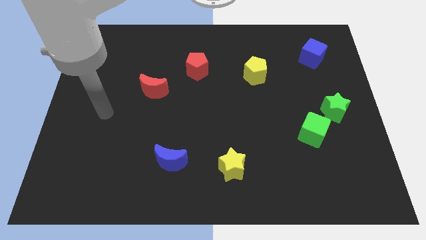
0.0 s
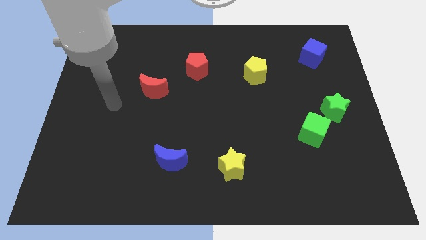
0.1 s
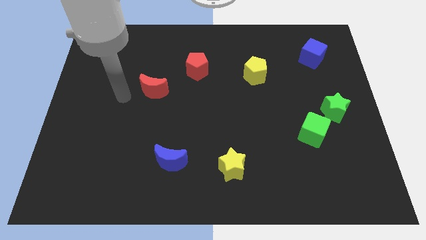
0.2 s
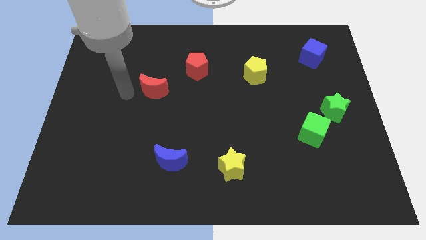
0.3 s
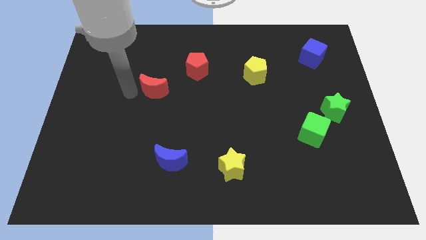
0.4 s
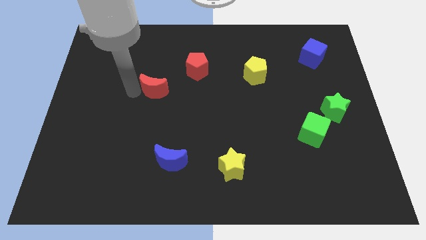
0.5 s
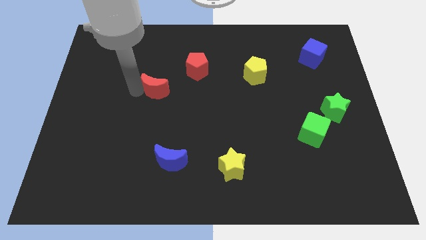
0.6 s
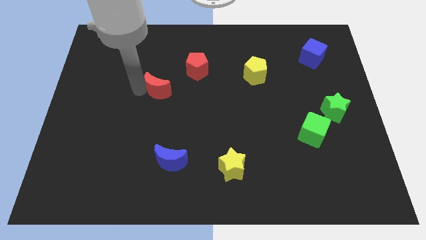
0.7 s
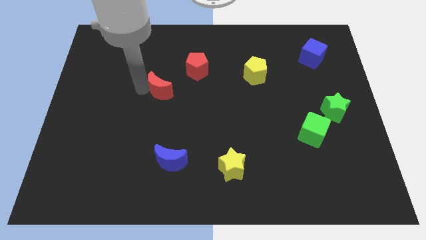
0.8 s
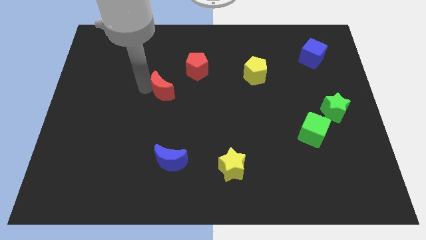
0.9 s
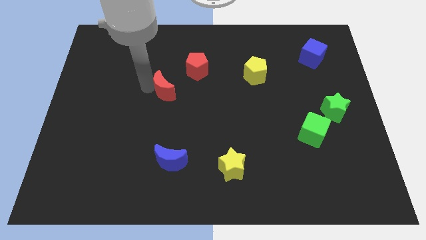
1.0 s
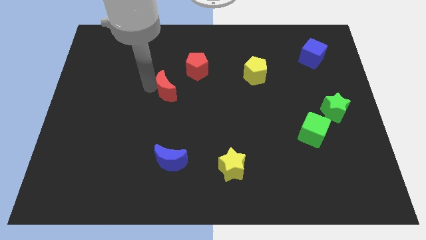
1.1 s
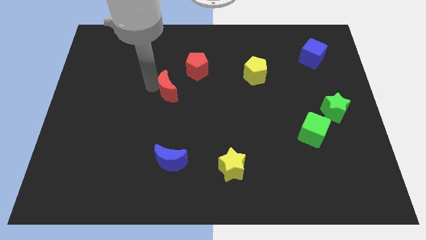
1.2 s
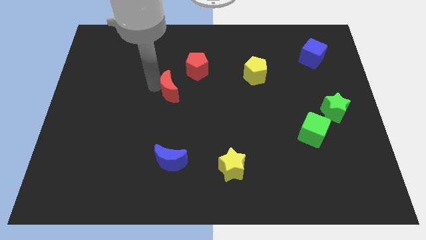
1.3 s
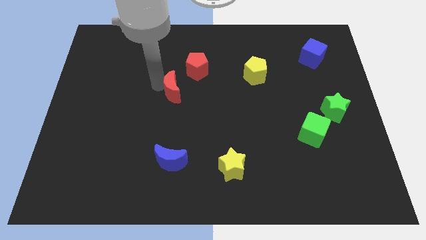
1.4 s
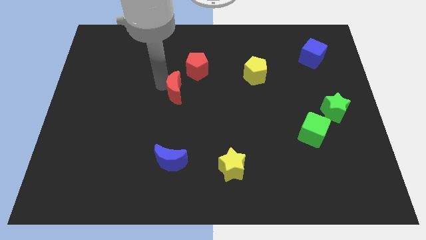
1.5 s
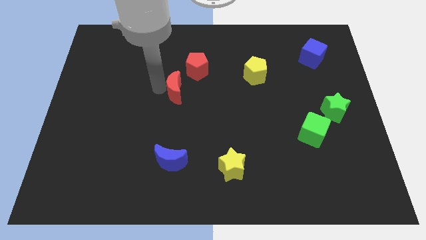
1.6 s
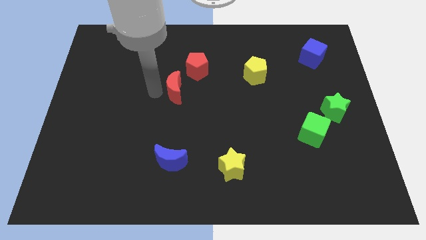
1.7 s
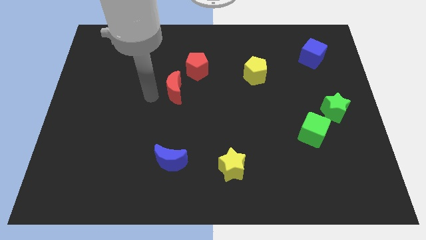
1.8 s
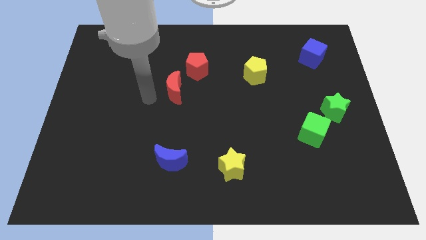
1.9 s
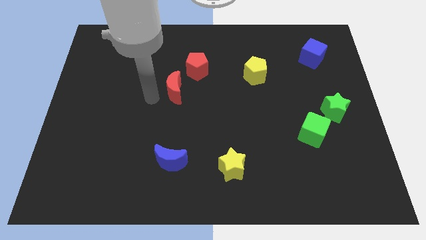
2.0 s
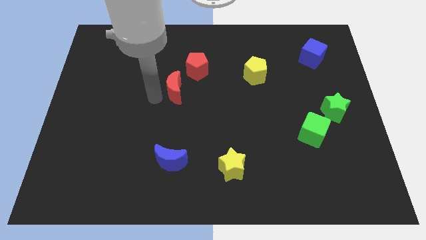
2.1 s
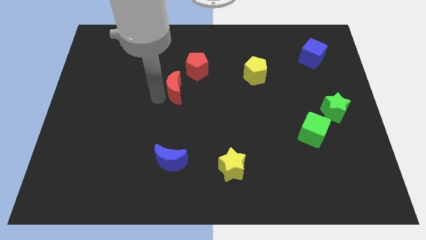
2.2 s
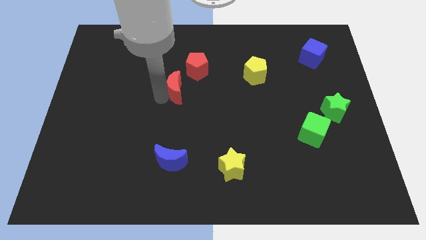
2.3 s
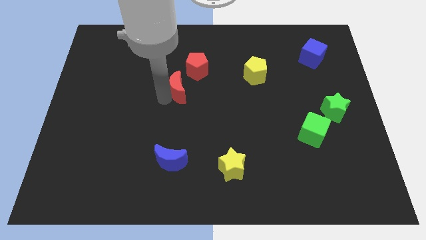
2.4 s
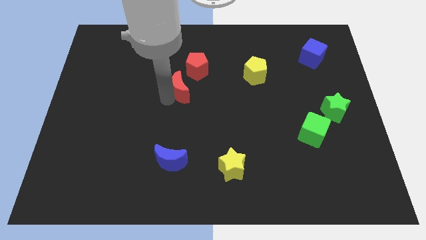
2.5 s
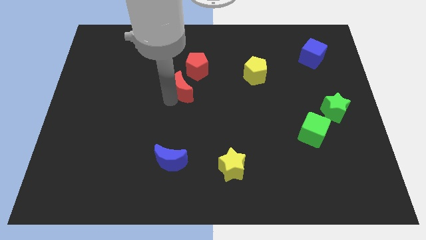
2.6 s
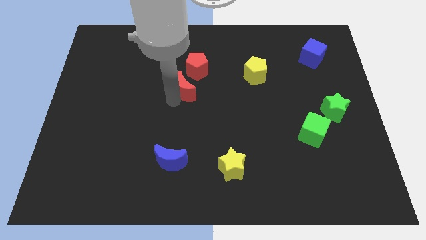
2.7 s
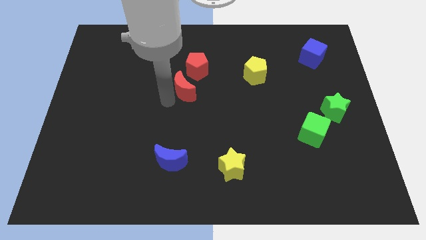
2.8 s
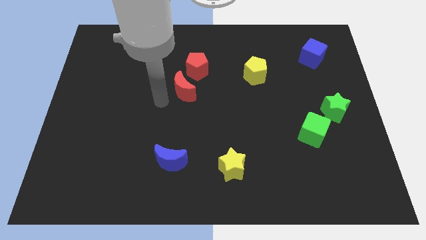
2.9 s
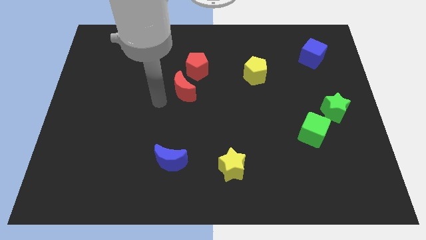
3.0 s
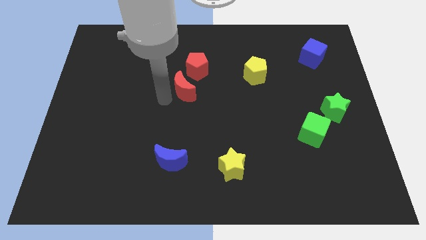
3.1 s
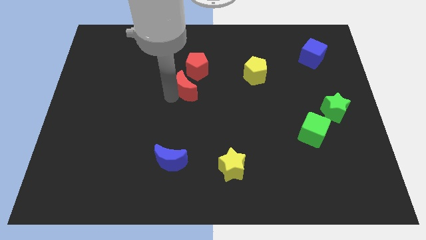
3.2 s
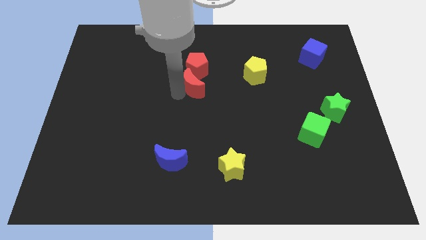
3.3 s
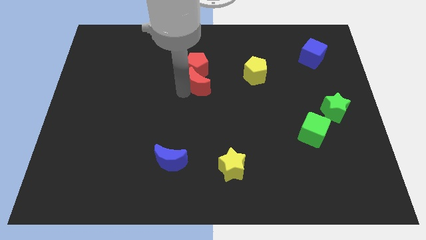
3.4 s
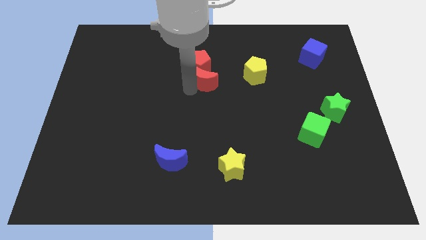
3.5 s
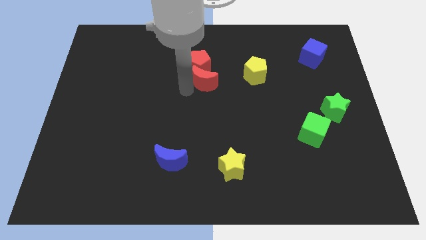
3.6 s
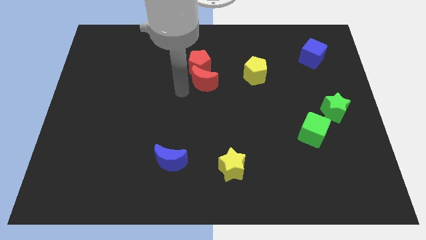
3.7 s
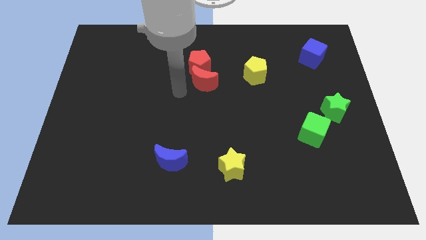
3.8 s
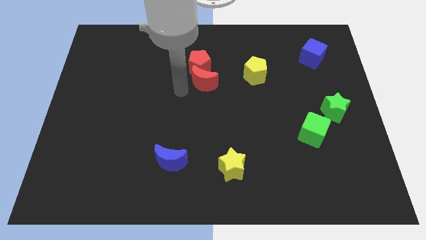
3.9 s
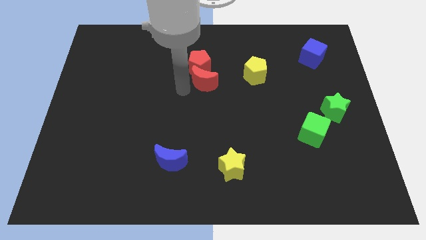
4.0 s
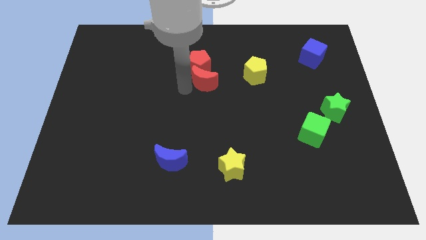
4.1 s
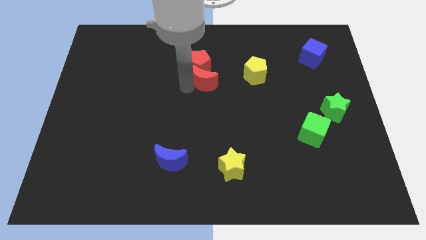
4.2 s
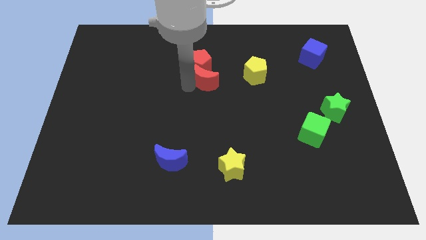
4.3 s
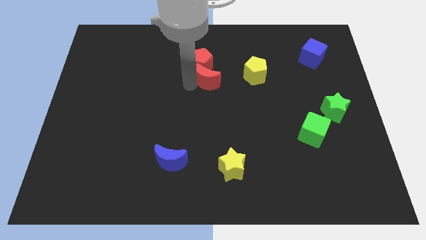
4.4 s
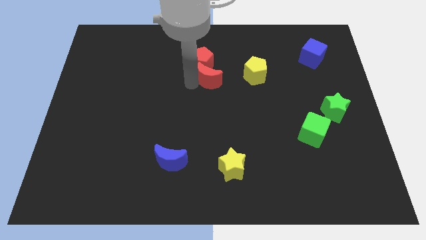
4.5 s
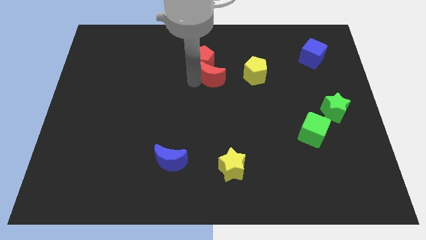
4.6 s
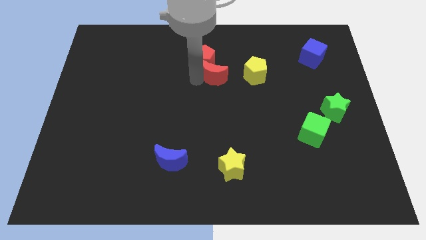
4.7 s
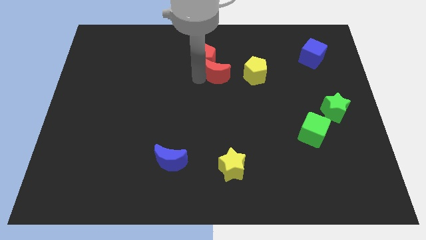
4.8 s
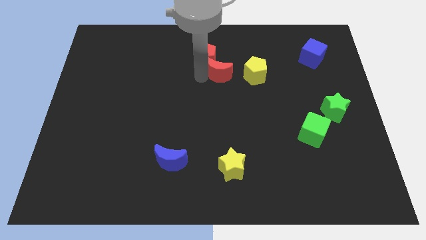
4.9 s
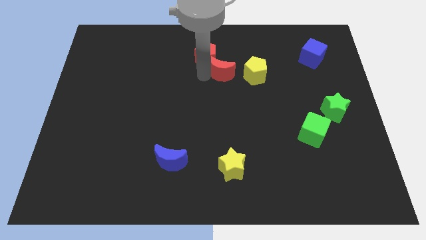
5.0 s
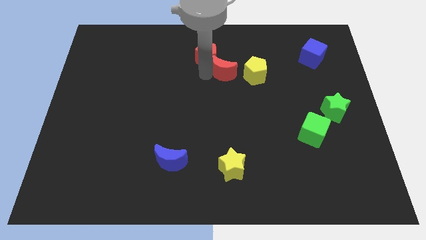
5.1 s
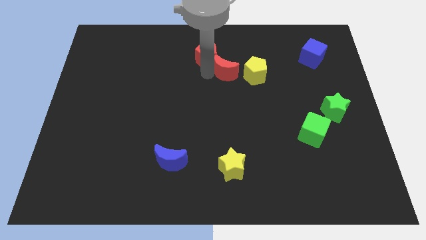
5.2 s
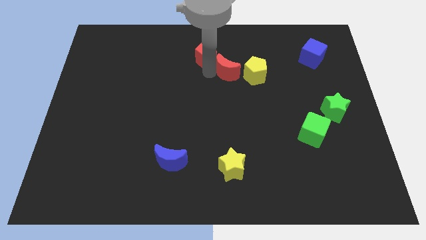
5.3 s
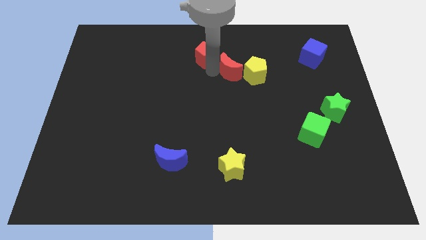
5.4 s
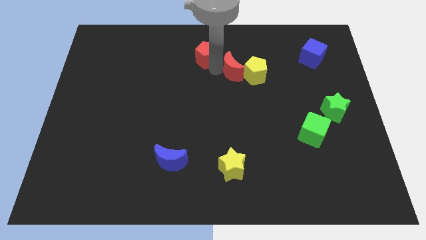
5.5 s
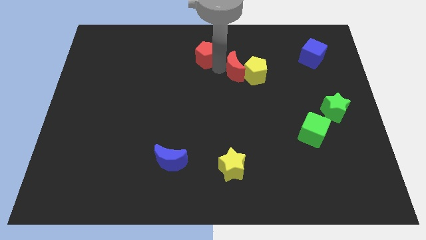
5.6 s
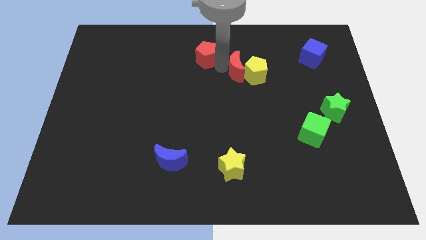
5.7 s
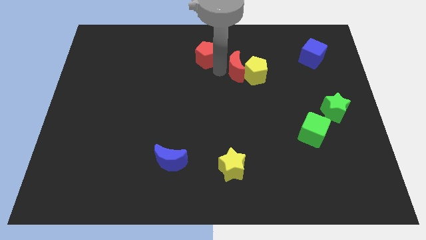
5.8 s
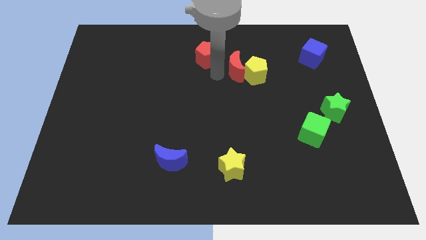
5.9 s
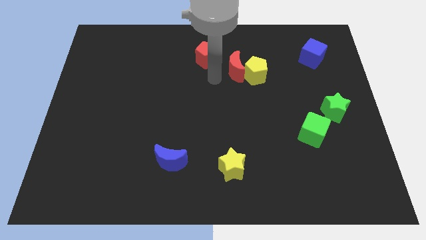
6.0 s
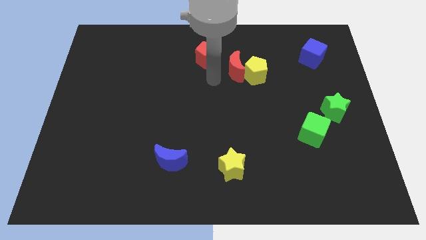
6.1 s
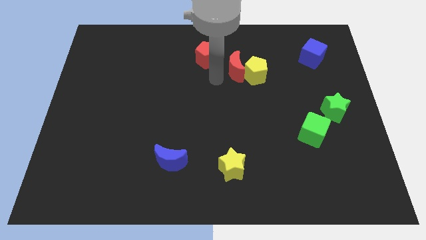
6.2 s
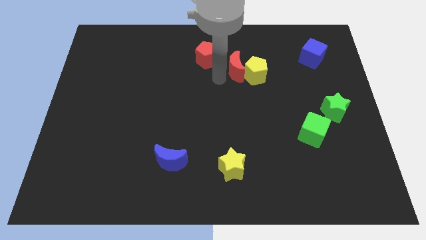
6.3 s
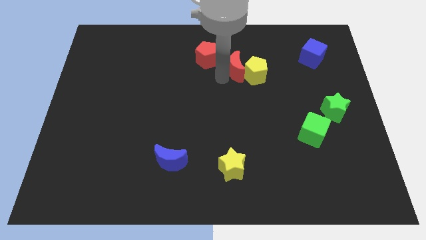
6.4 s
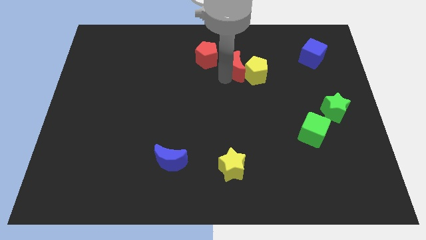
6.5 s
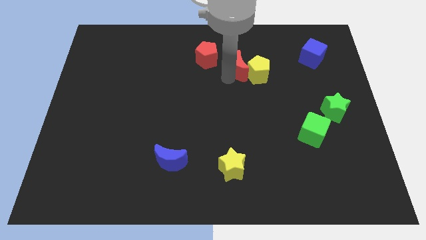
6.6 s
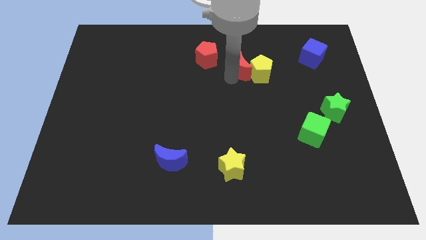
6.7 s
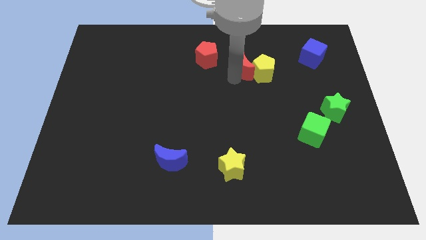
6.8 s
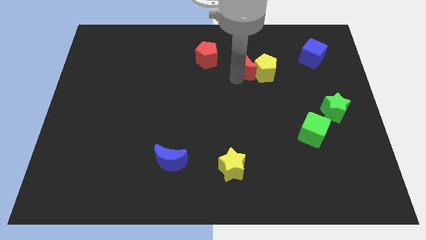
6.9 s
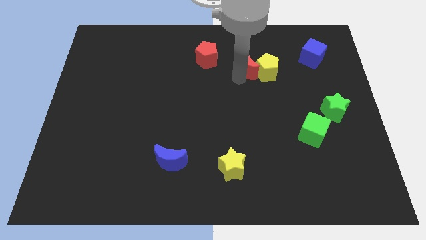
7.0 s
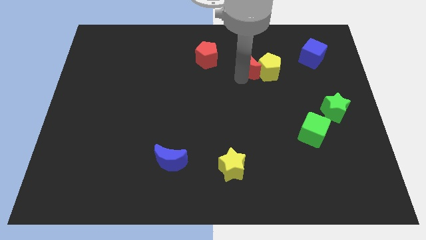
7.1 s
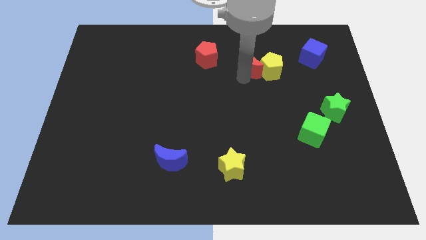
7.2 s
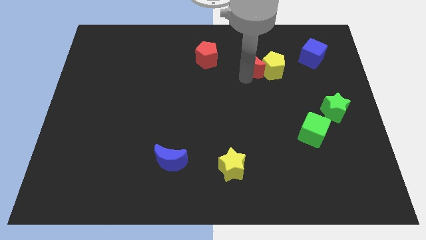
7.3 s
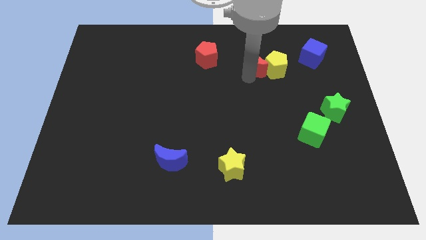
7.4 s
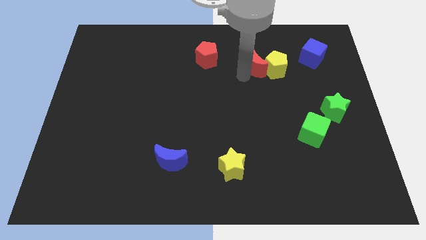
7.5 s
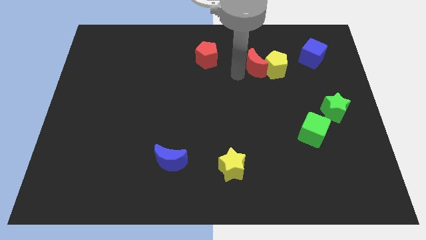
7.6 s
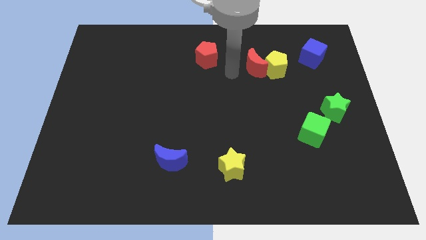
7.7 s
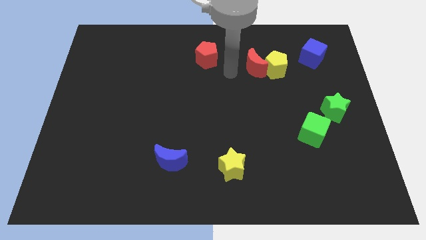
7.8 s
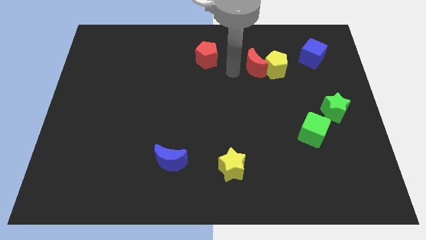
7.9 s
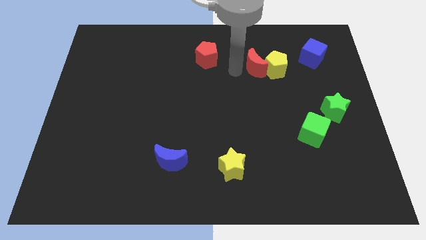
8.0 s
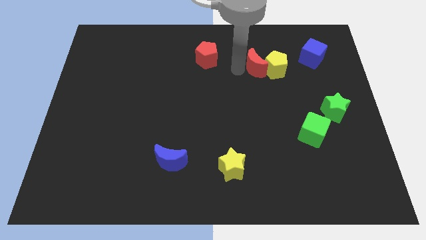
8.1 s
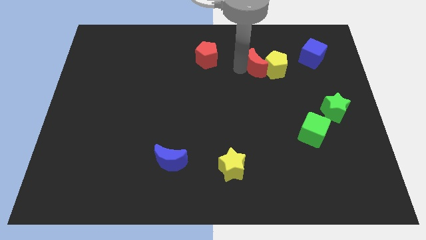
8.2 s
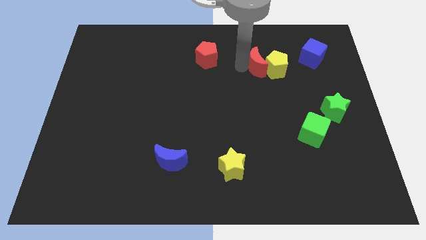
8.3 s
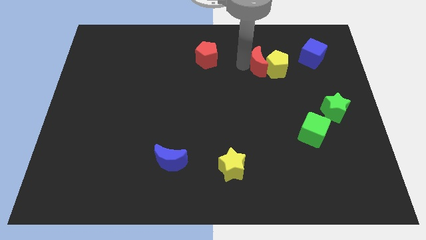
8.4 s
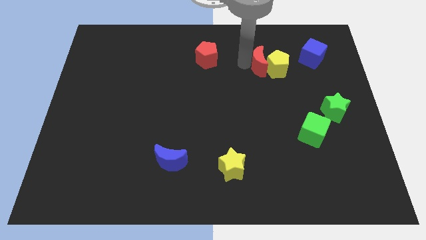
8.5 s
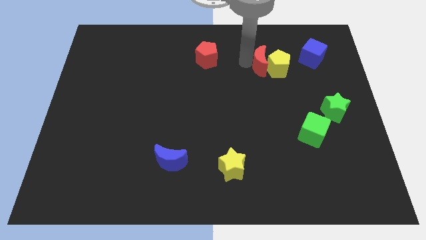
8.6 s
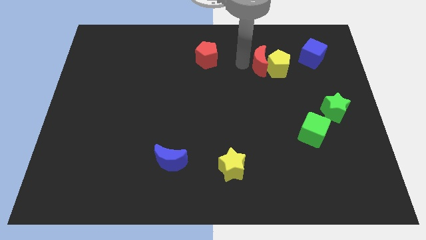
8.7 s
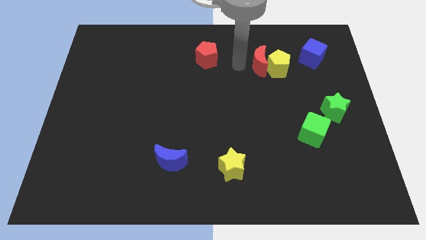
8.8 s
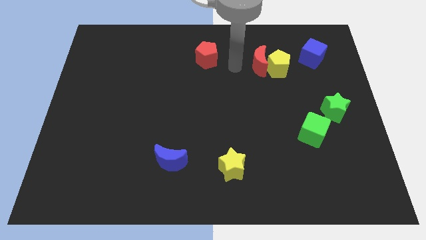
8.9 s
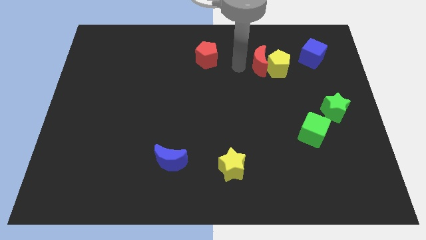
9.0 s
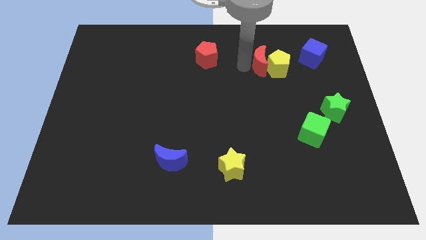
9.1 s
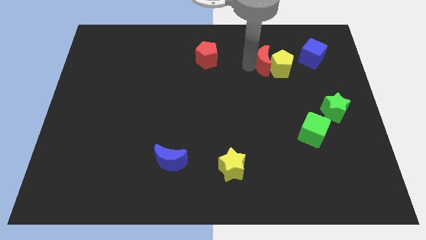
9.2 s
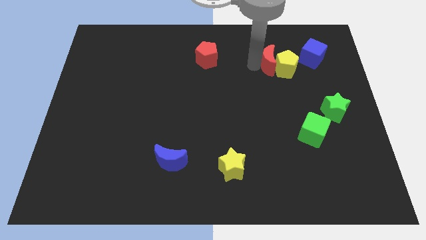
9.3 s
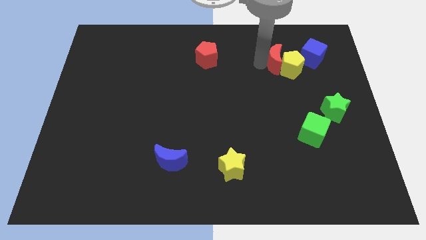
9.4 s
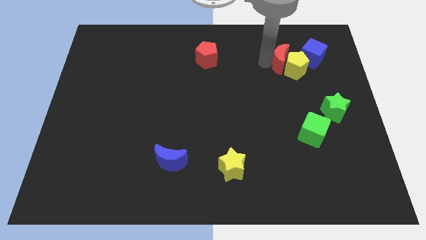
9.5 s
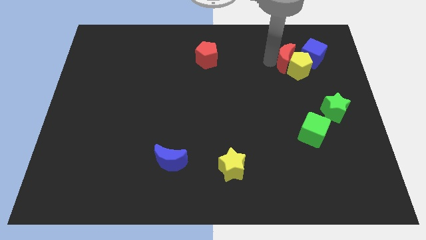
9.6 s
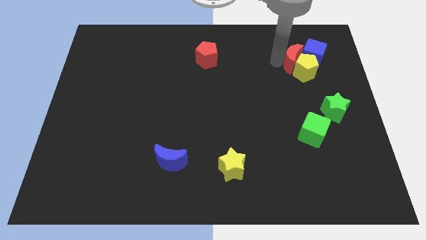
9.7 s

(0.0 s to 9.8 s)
slide the red moon close to the blue cube
